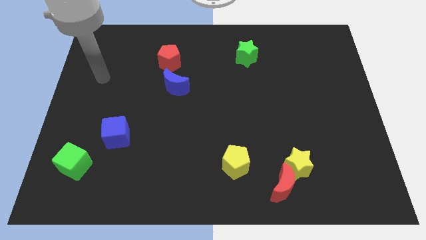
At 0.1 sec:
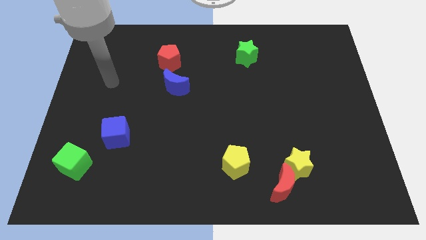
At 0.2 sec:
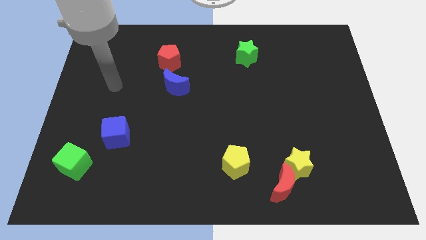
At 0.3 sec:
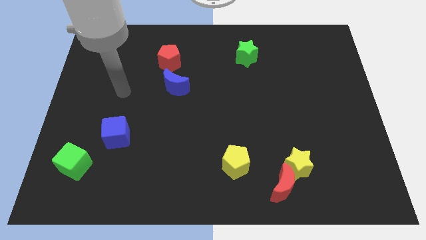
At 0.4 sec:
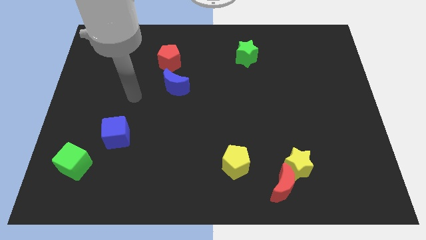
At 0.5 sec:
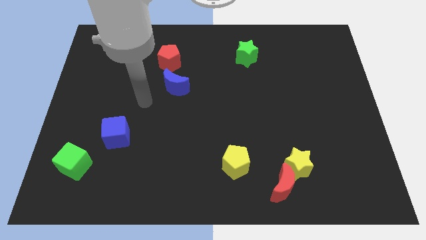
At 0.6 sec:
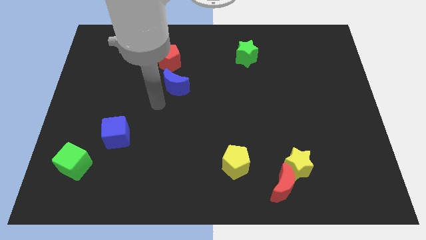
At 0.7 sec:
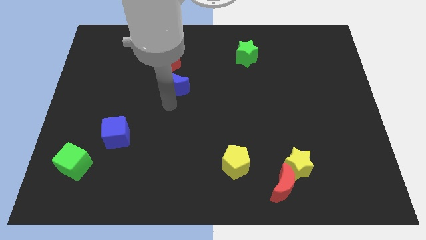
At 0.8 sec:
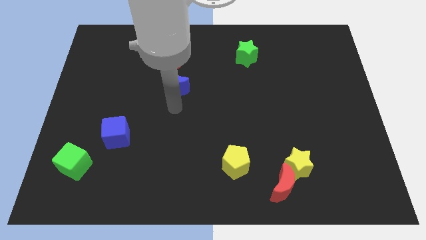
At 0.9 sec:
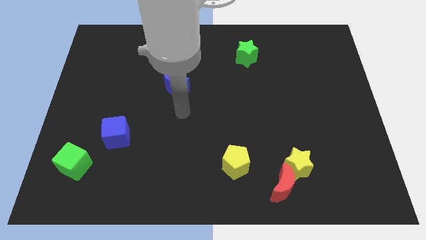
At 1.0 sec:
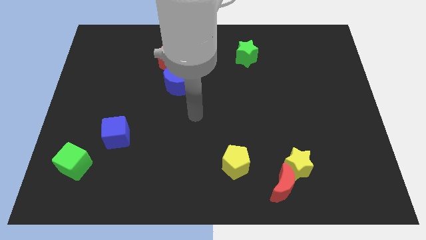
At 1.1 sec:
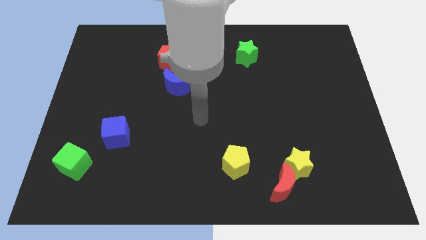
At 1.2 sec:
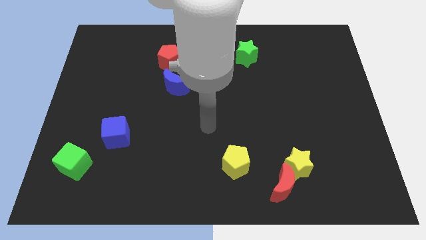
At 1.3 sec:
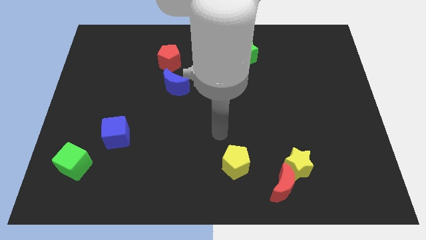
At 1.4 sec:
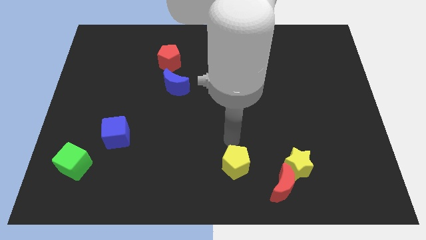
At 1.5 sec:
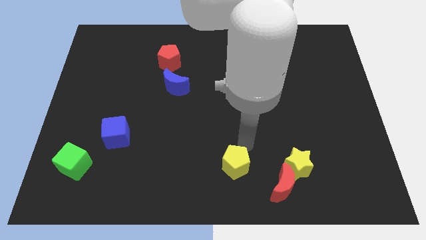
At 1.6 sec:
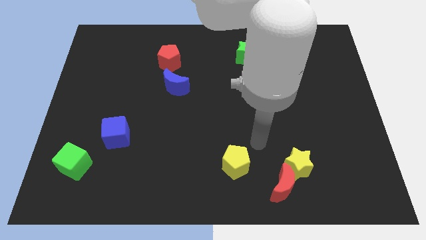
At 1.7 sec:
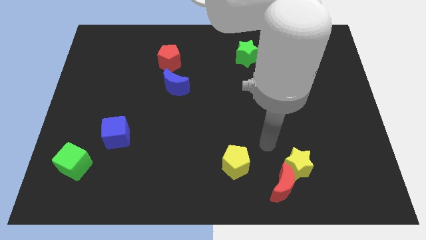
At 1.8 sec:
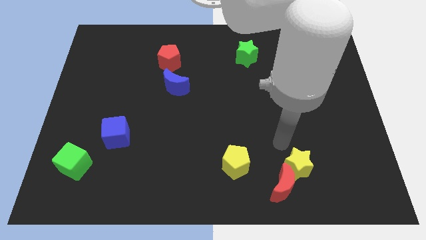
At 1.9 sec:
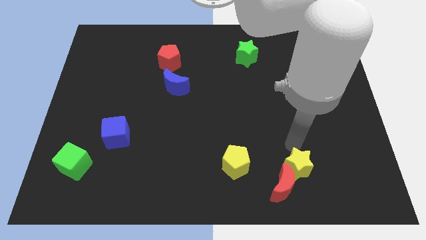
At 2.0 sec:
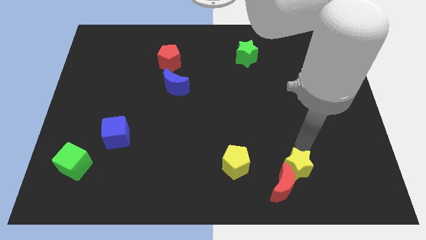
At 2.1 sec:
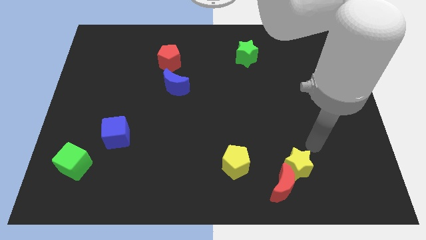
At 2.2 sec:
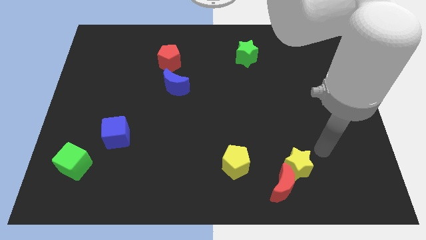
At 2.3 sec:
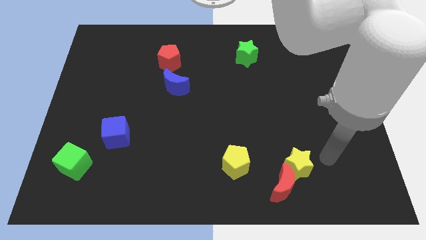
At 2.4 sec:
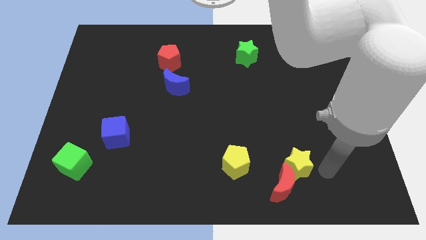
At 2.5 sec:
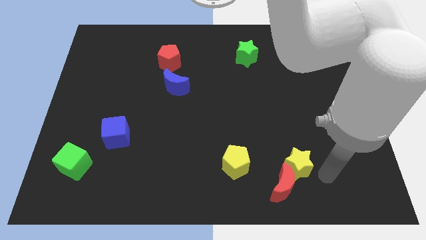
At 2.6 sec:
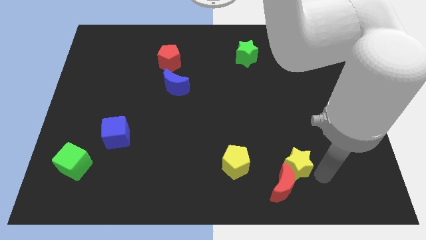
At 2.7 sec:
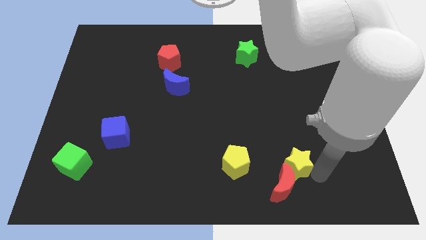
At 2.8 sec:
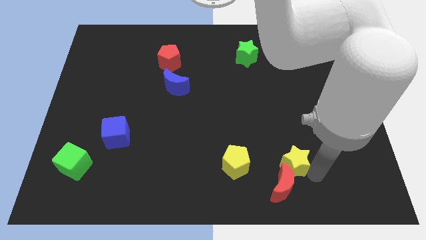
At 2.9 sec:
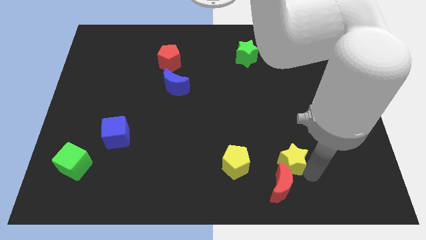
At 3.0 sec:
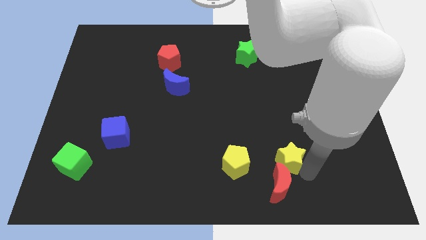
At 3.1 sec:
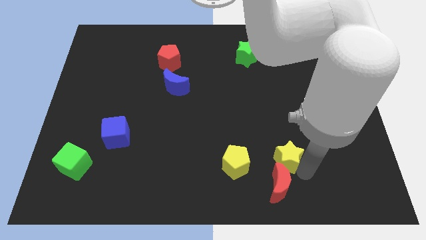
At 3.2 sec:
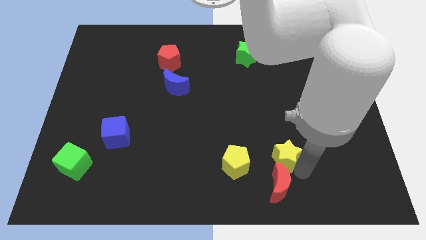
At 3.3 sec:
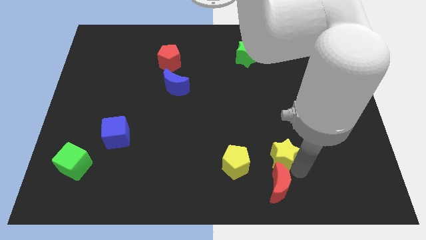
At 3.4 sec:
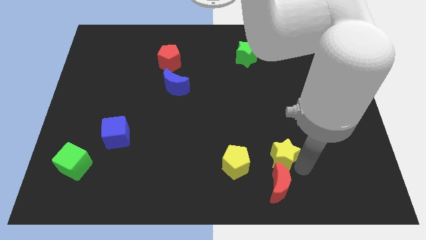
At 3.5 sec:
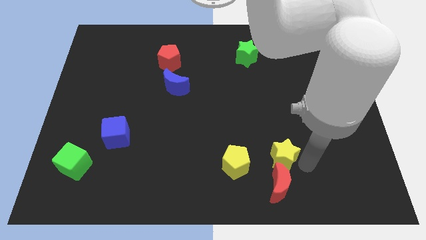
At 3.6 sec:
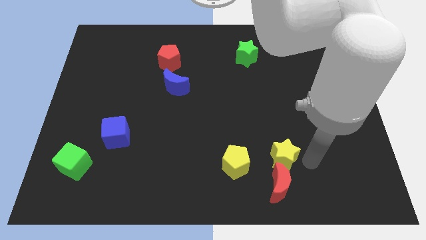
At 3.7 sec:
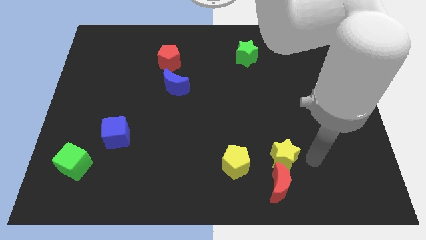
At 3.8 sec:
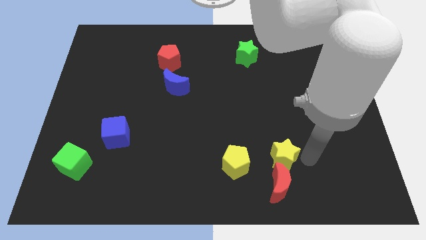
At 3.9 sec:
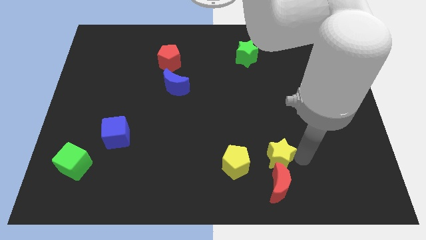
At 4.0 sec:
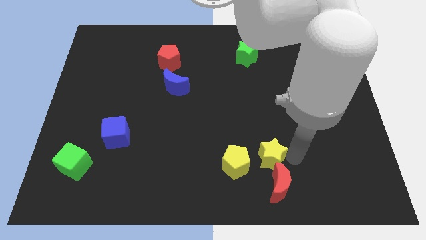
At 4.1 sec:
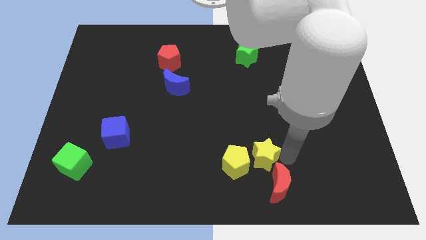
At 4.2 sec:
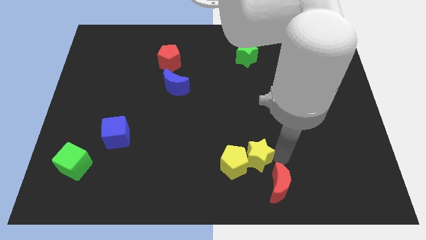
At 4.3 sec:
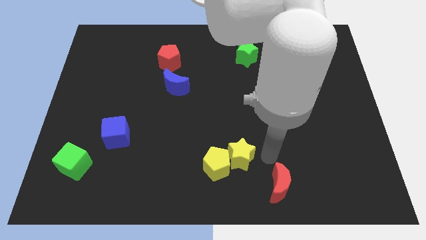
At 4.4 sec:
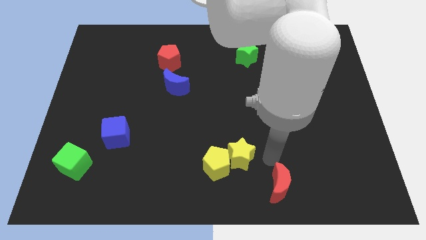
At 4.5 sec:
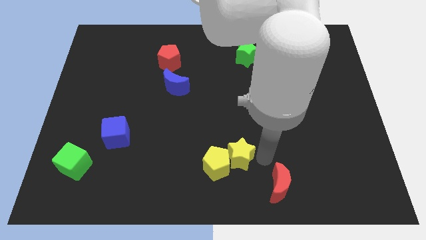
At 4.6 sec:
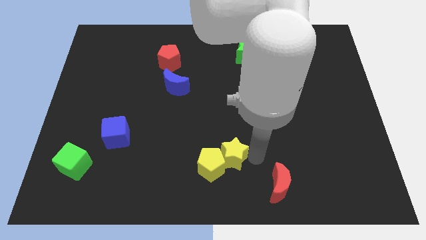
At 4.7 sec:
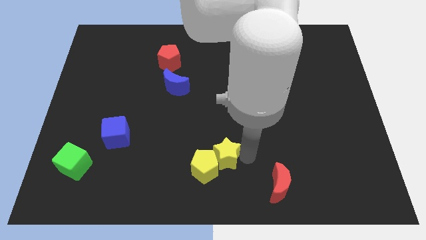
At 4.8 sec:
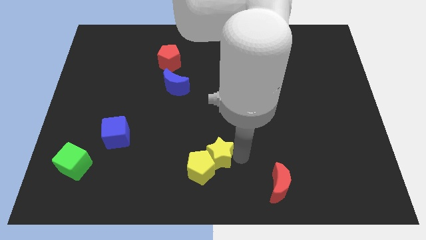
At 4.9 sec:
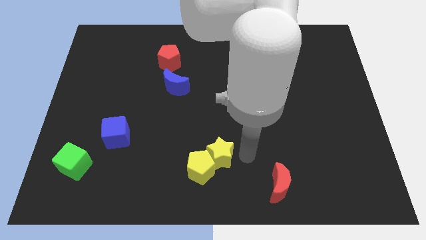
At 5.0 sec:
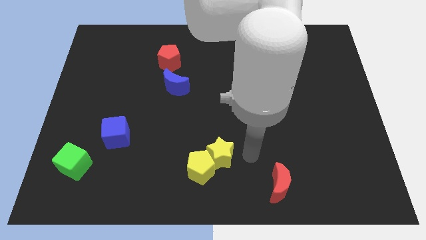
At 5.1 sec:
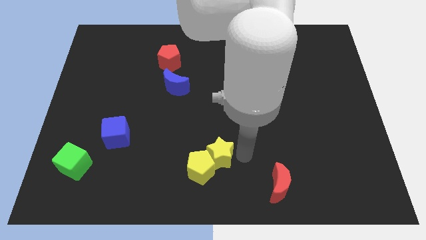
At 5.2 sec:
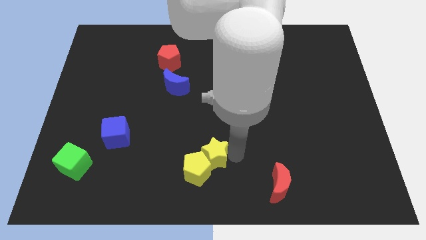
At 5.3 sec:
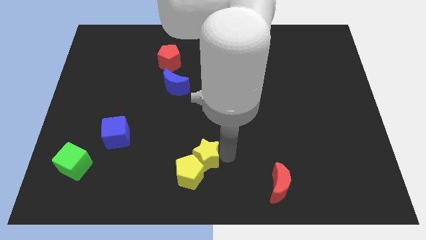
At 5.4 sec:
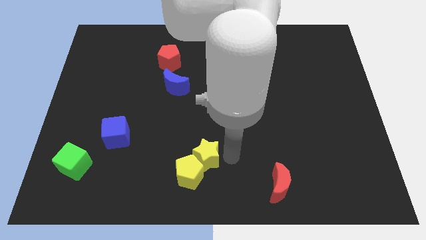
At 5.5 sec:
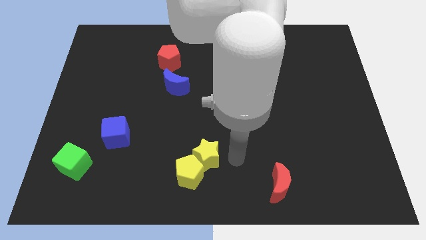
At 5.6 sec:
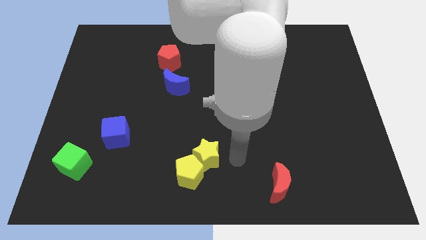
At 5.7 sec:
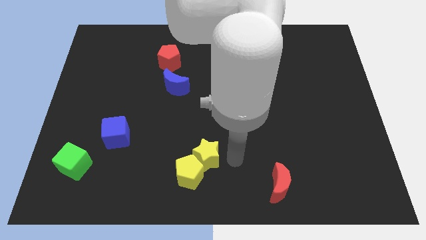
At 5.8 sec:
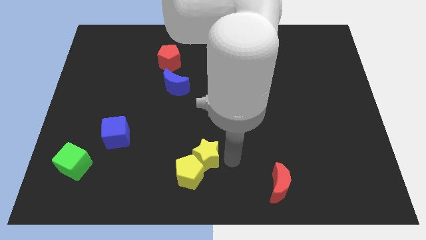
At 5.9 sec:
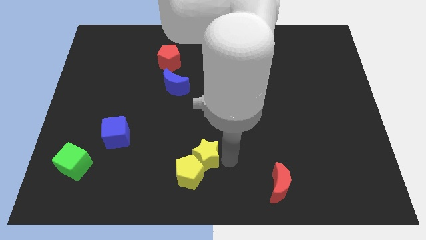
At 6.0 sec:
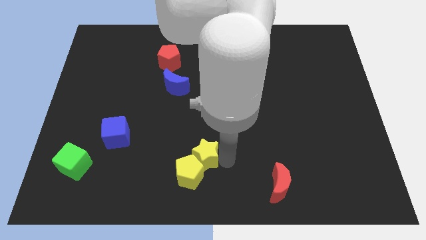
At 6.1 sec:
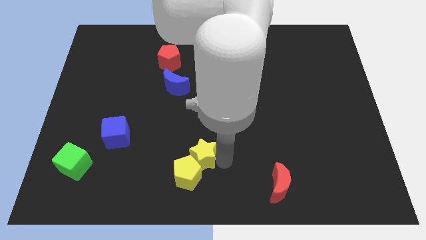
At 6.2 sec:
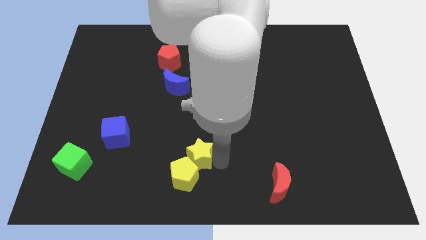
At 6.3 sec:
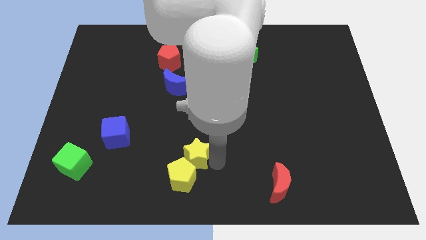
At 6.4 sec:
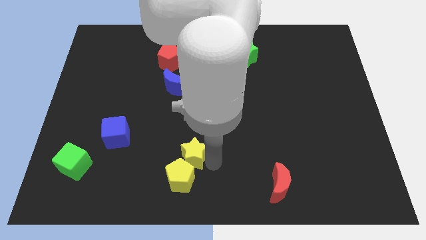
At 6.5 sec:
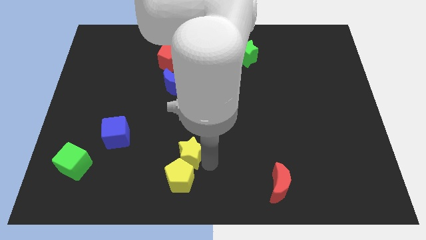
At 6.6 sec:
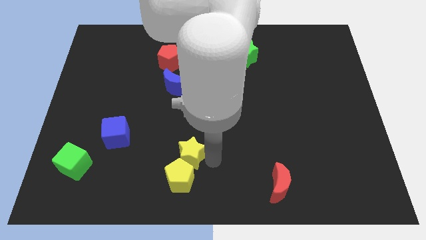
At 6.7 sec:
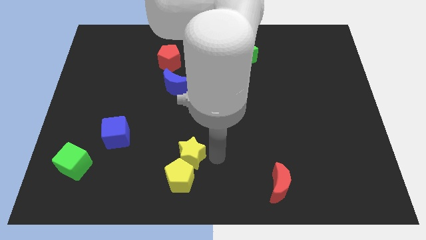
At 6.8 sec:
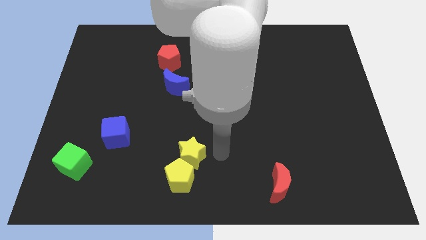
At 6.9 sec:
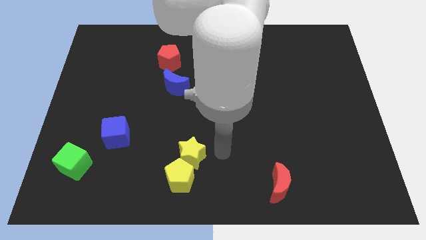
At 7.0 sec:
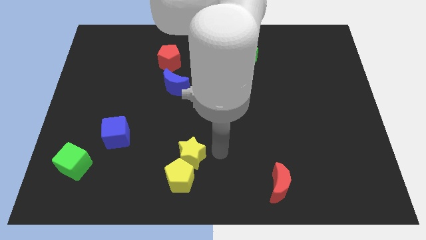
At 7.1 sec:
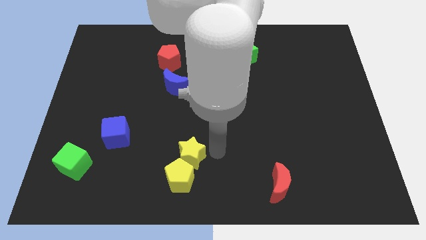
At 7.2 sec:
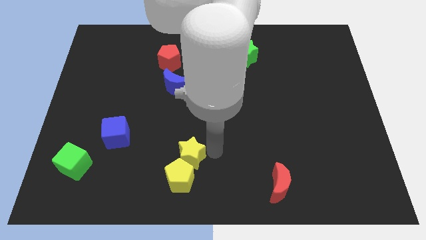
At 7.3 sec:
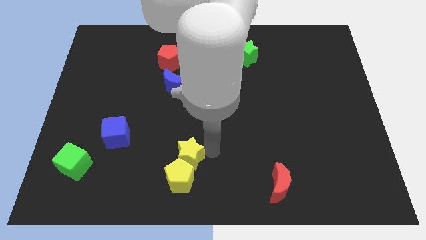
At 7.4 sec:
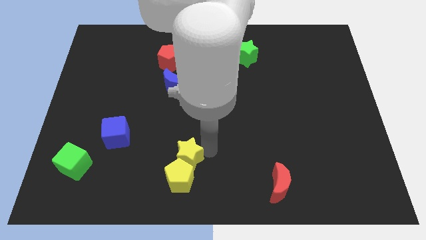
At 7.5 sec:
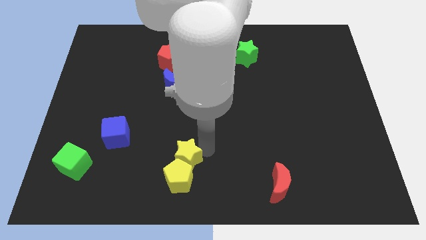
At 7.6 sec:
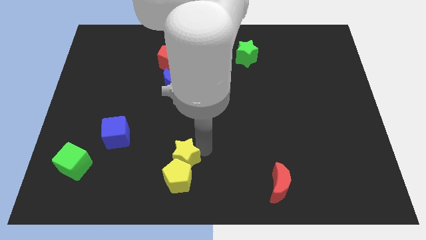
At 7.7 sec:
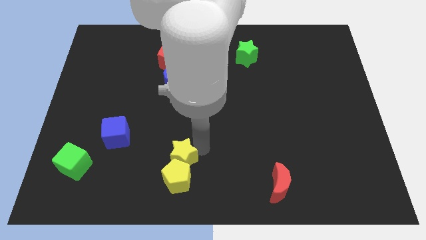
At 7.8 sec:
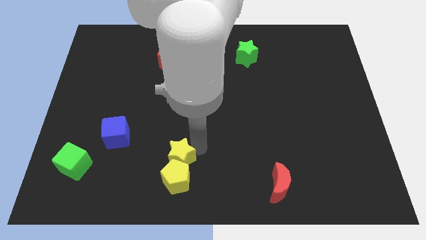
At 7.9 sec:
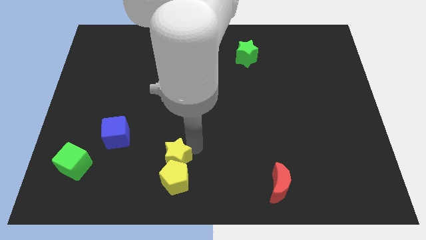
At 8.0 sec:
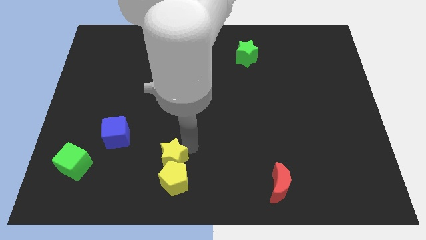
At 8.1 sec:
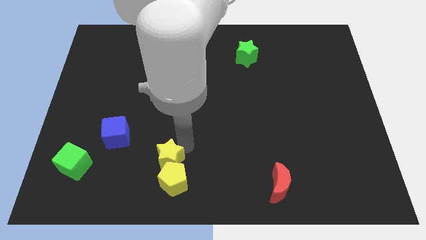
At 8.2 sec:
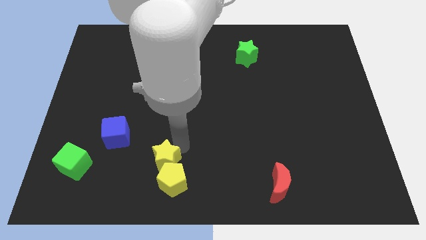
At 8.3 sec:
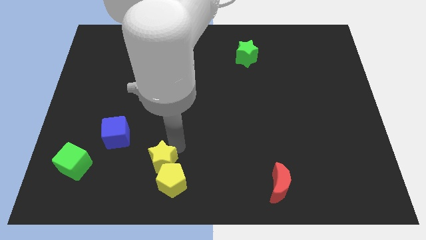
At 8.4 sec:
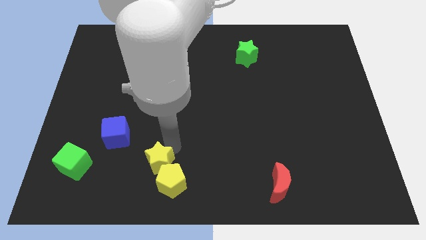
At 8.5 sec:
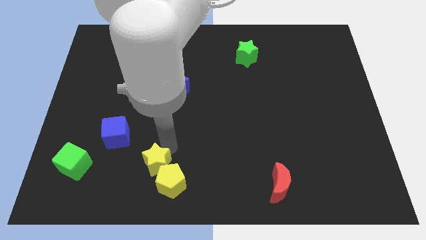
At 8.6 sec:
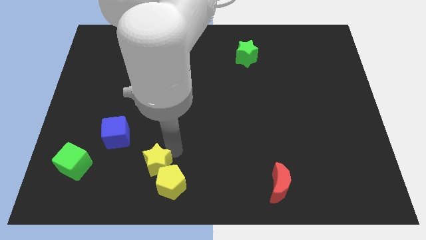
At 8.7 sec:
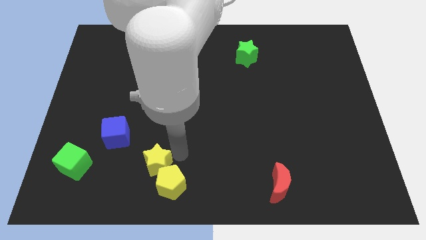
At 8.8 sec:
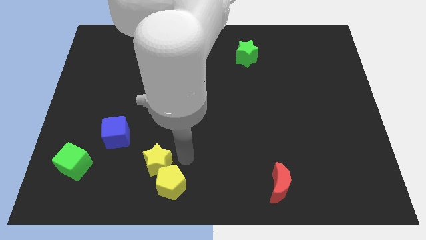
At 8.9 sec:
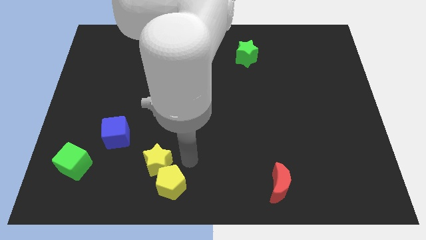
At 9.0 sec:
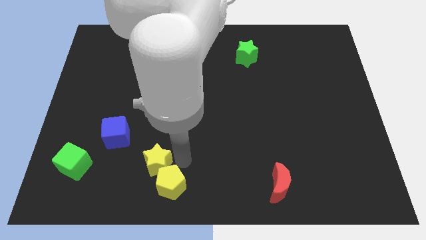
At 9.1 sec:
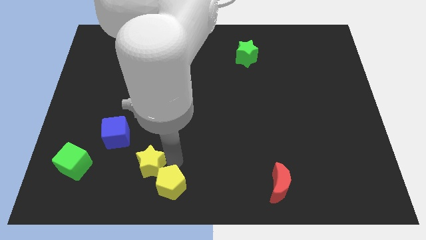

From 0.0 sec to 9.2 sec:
move the yellow star just right of the green cube
